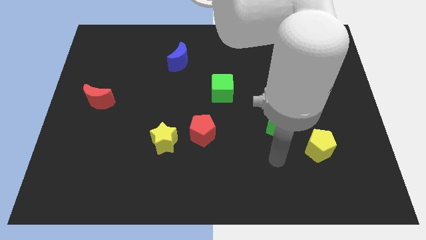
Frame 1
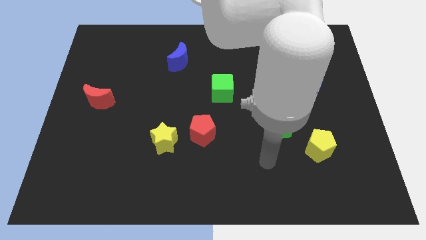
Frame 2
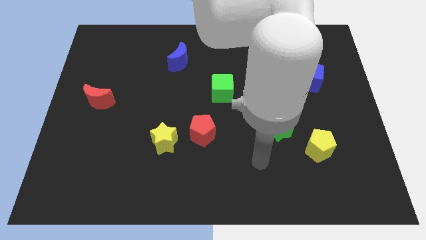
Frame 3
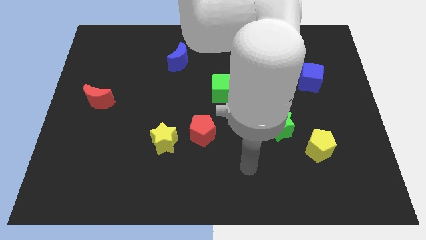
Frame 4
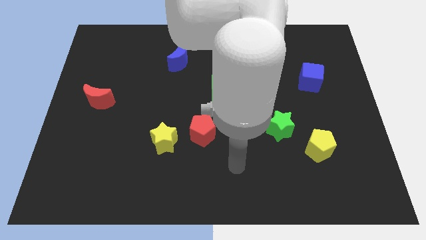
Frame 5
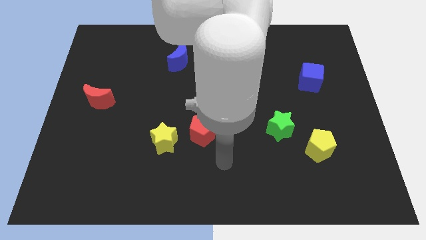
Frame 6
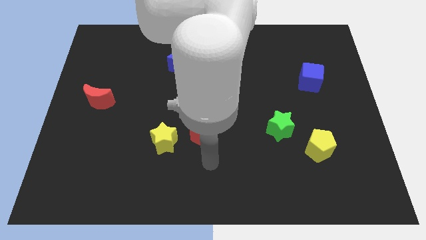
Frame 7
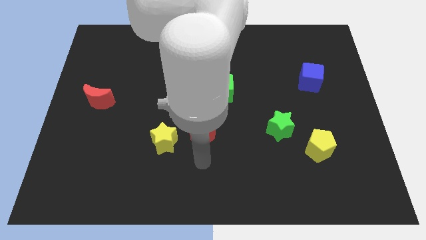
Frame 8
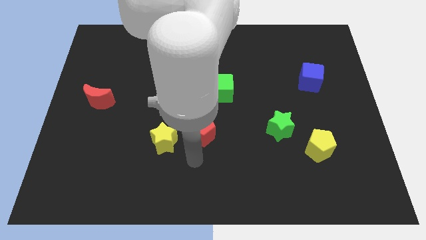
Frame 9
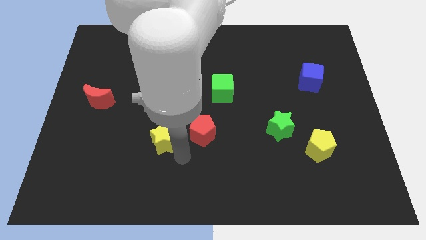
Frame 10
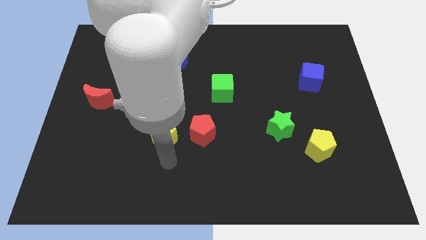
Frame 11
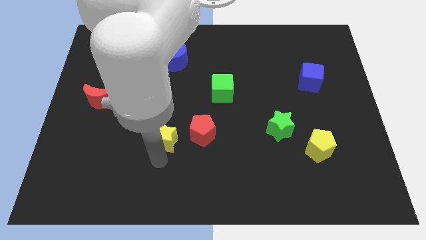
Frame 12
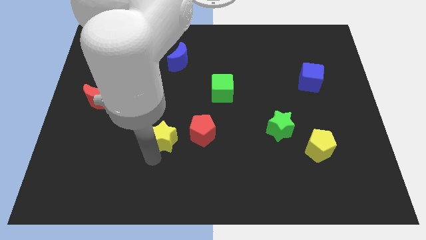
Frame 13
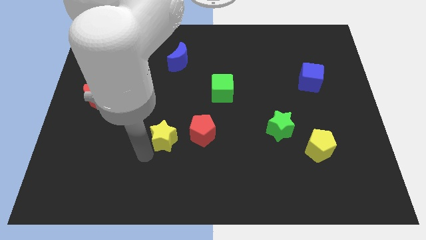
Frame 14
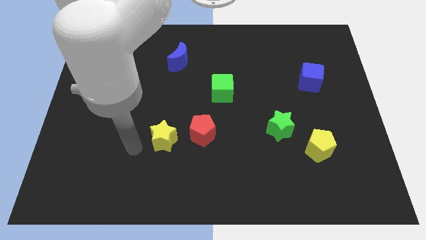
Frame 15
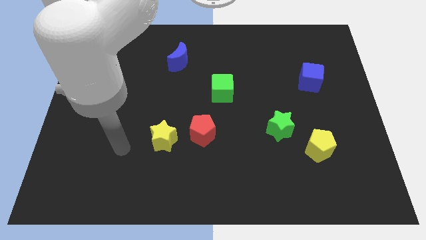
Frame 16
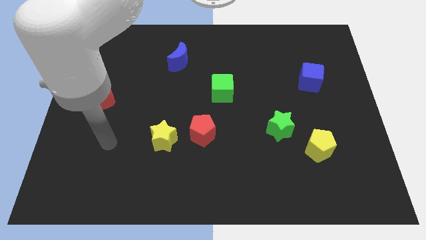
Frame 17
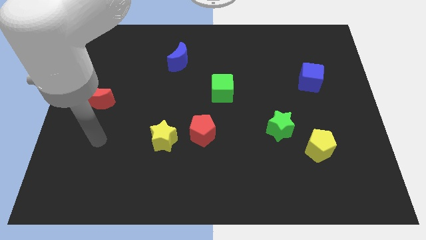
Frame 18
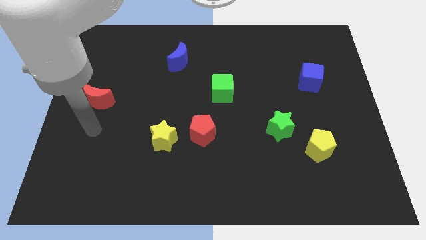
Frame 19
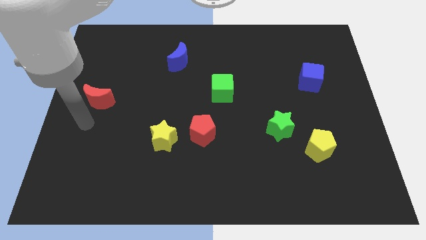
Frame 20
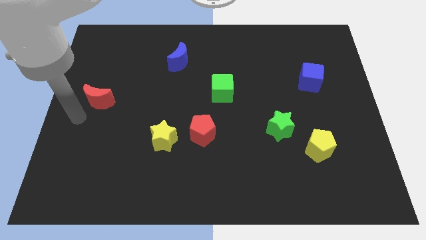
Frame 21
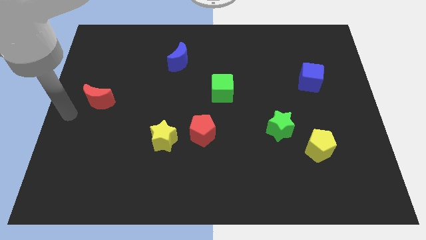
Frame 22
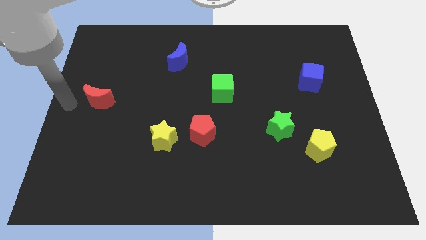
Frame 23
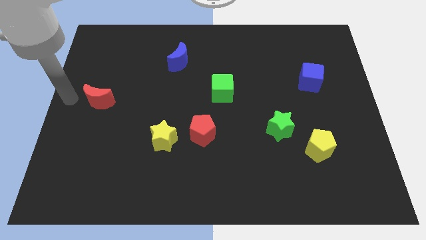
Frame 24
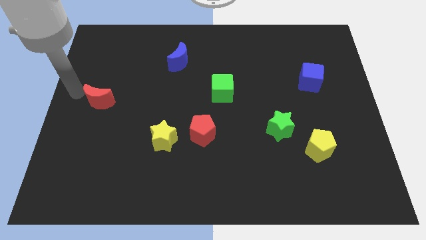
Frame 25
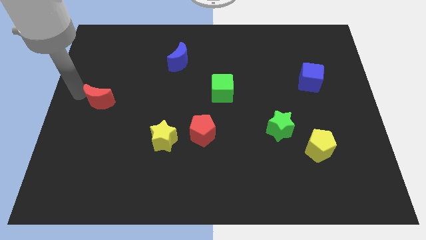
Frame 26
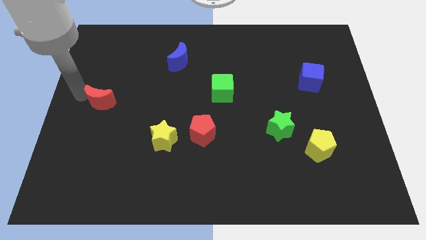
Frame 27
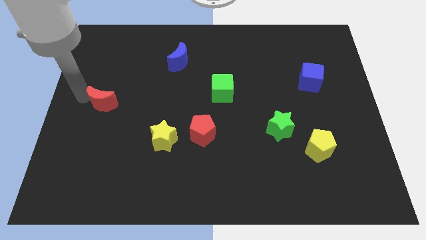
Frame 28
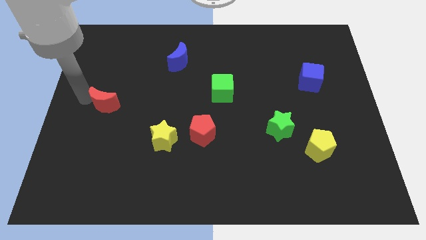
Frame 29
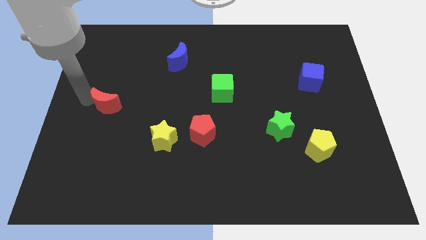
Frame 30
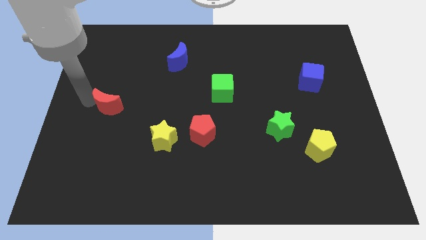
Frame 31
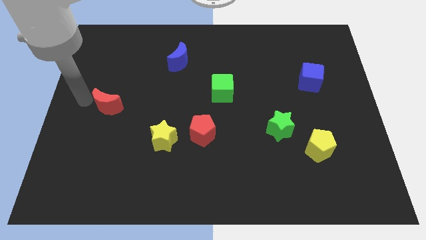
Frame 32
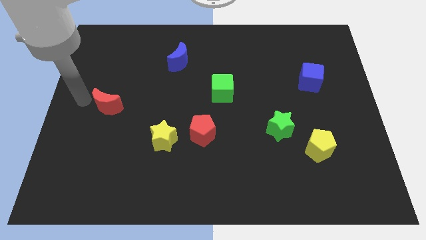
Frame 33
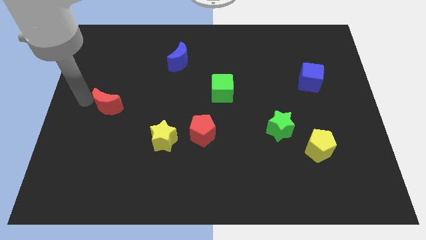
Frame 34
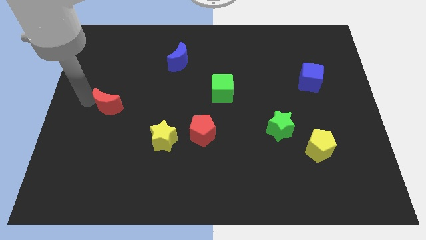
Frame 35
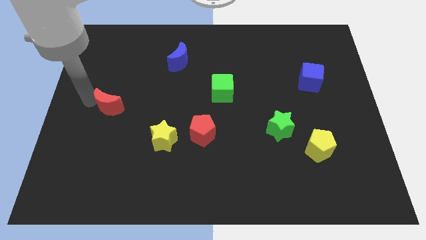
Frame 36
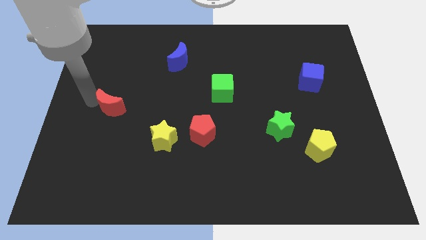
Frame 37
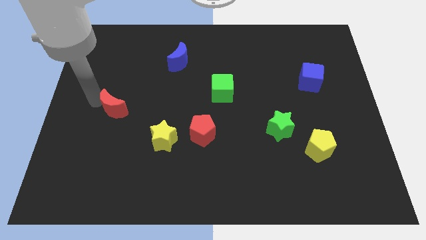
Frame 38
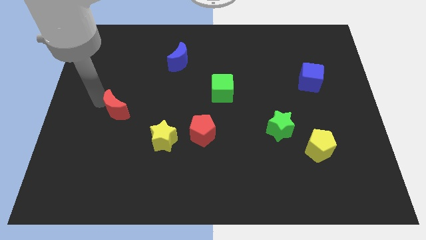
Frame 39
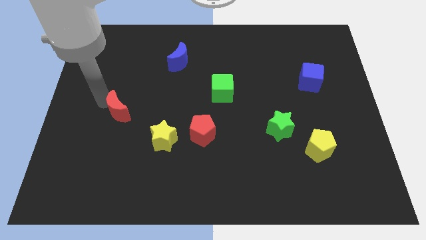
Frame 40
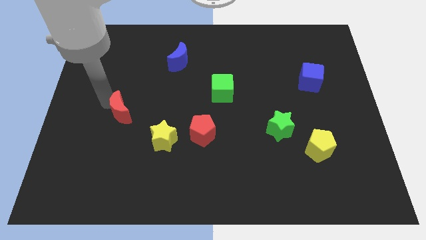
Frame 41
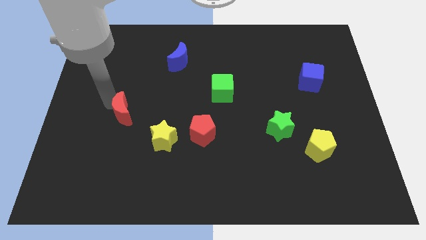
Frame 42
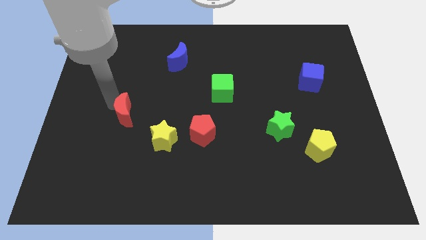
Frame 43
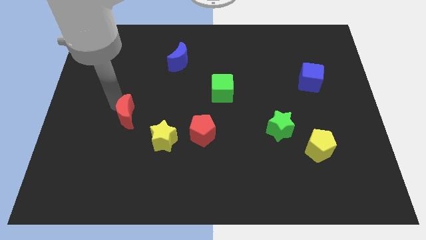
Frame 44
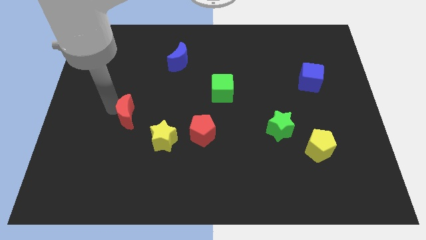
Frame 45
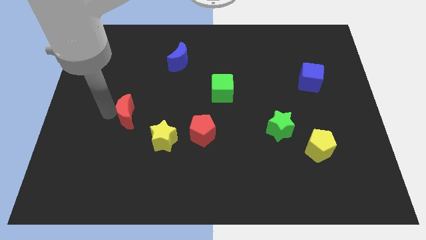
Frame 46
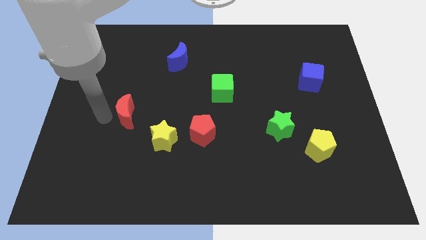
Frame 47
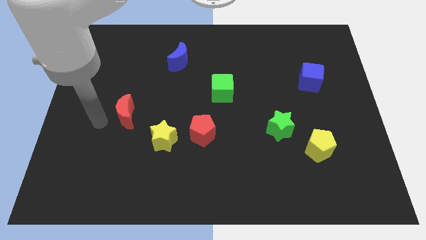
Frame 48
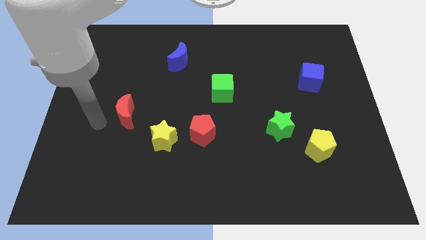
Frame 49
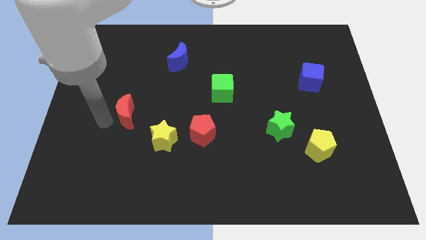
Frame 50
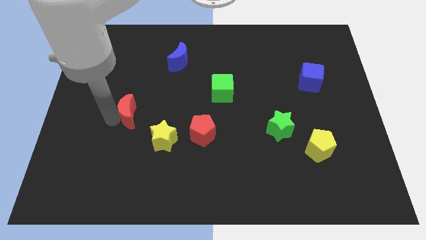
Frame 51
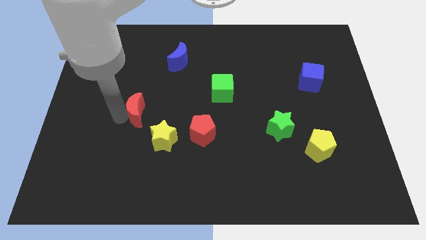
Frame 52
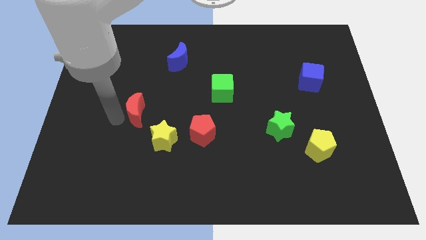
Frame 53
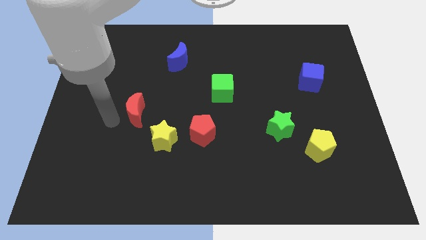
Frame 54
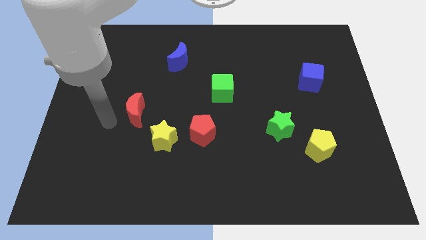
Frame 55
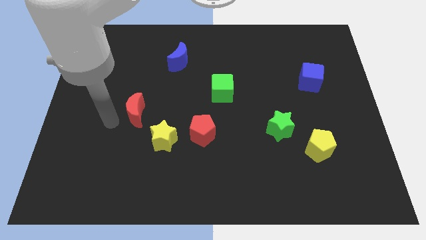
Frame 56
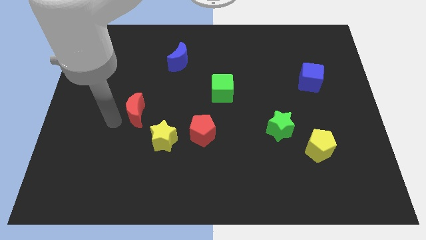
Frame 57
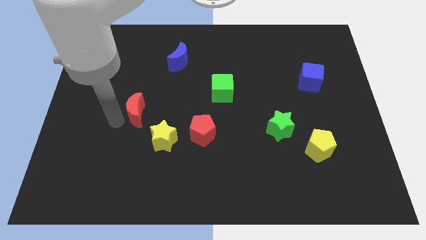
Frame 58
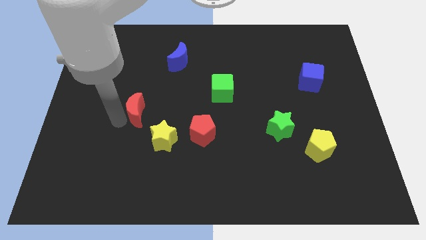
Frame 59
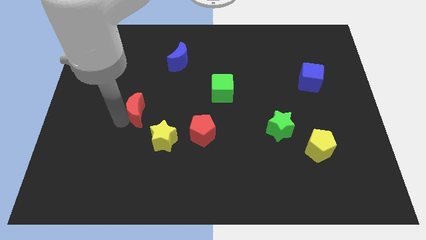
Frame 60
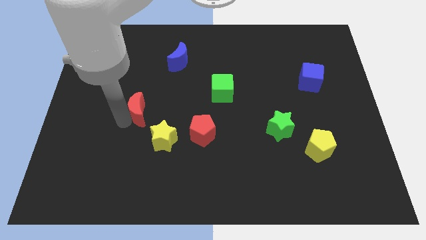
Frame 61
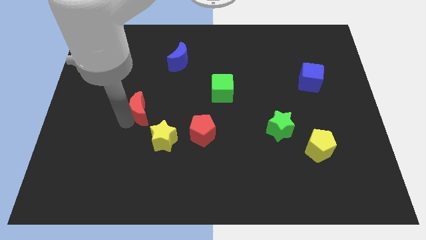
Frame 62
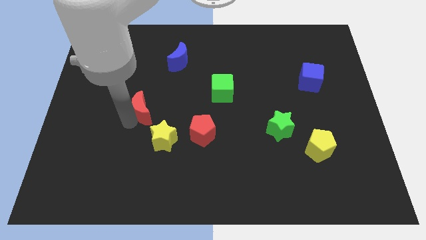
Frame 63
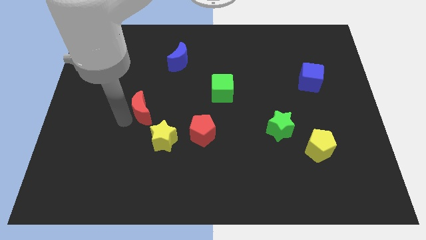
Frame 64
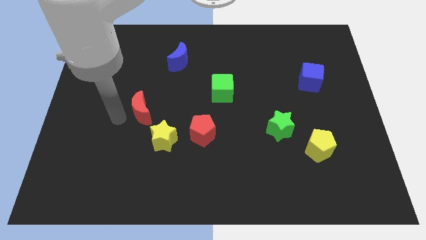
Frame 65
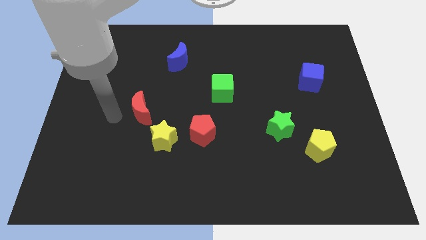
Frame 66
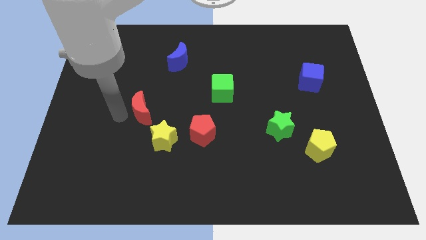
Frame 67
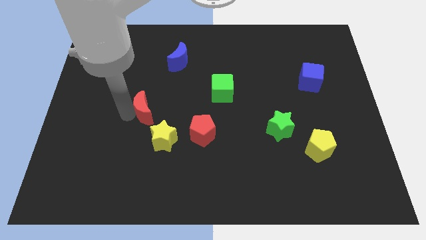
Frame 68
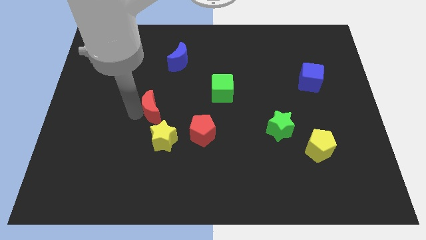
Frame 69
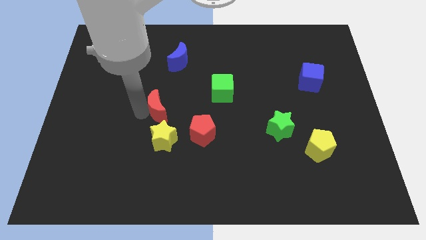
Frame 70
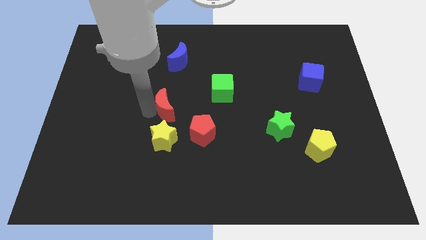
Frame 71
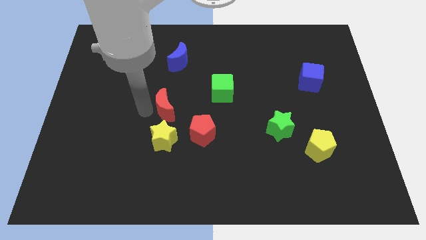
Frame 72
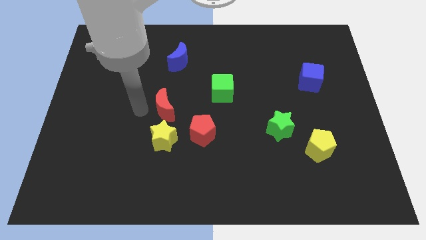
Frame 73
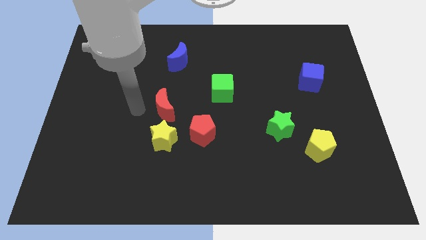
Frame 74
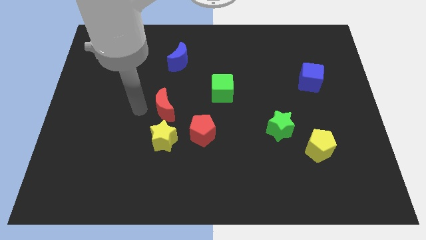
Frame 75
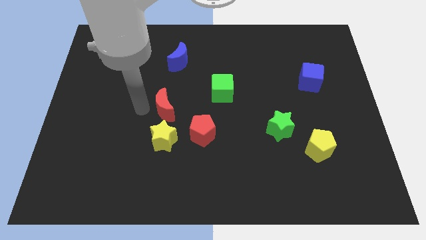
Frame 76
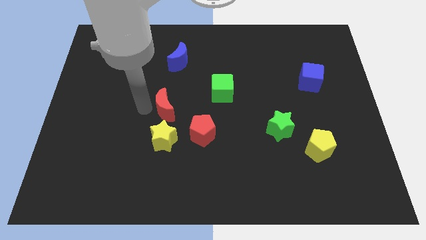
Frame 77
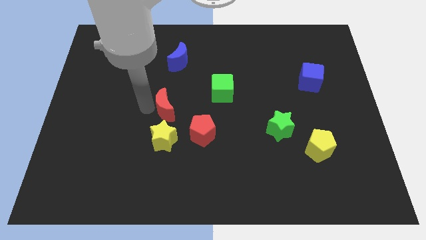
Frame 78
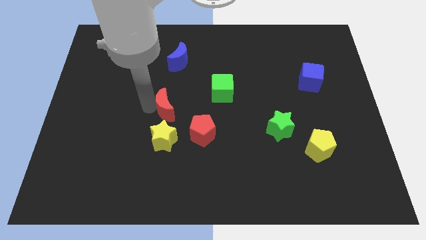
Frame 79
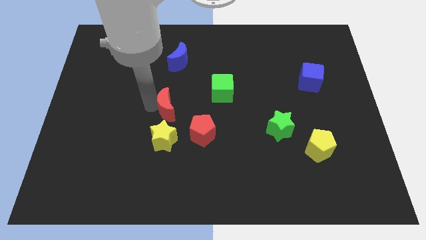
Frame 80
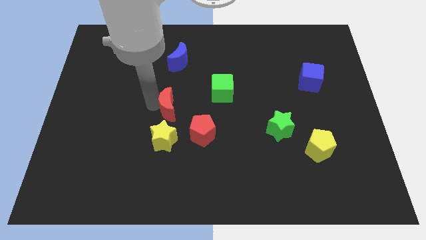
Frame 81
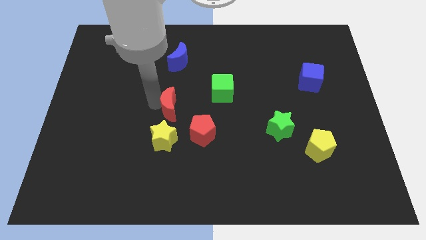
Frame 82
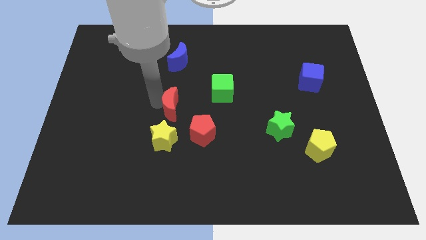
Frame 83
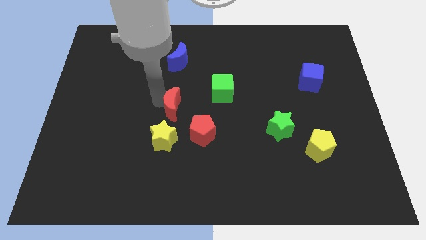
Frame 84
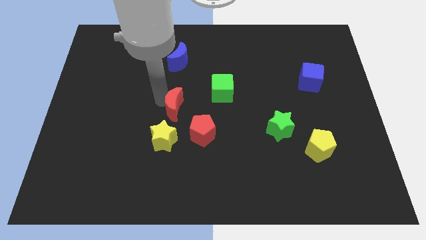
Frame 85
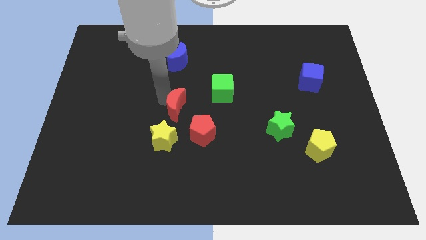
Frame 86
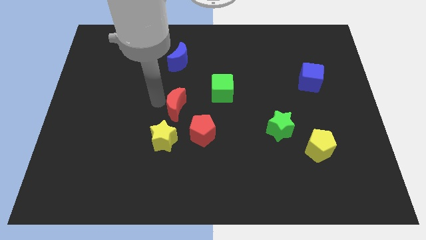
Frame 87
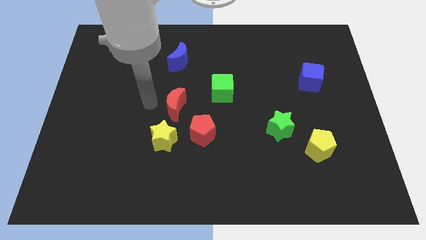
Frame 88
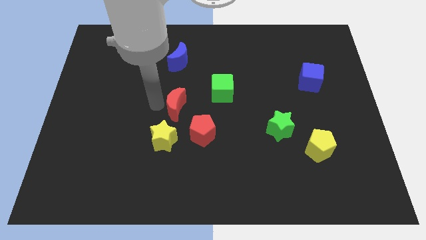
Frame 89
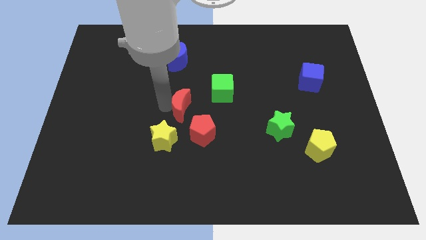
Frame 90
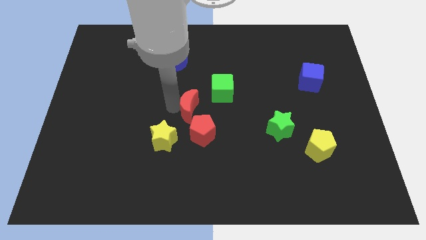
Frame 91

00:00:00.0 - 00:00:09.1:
slide the red moon to the right
